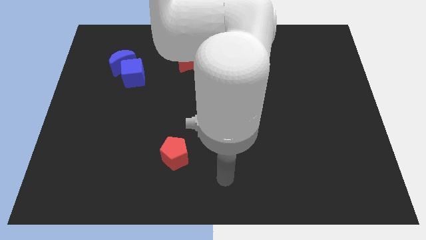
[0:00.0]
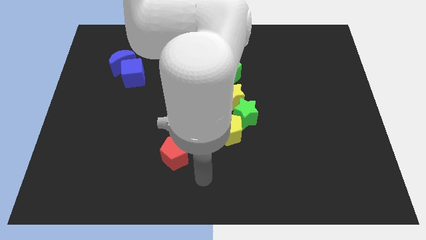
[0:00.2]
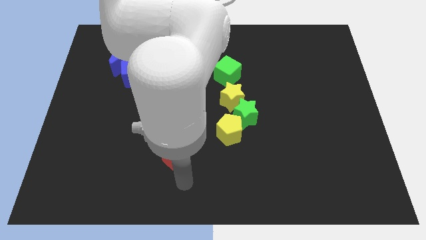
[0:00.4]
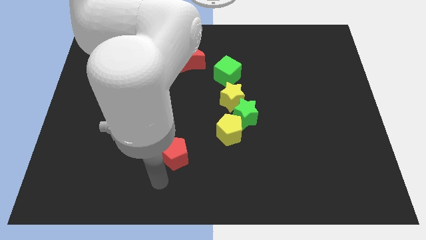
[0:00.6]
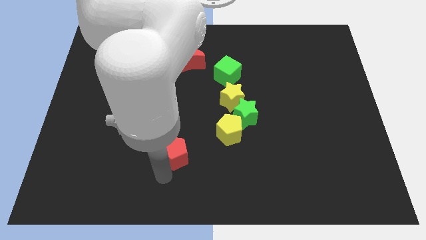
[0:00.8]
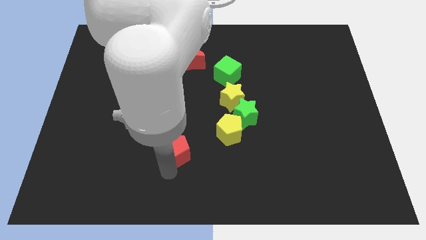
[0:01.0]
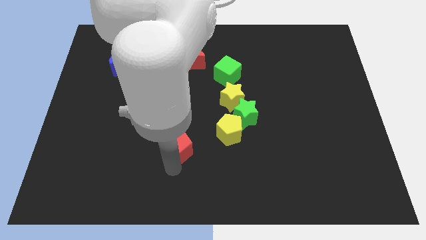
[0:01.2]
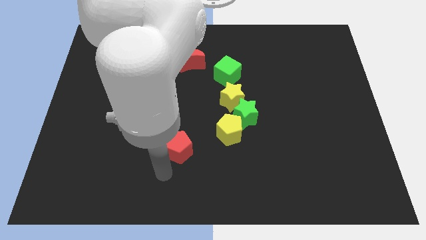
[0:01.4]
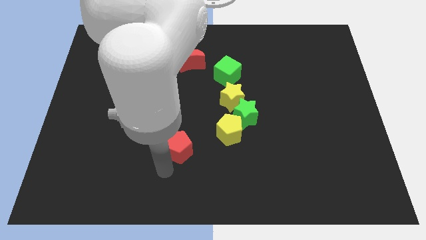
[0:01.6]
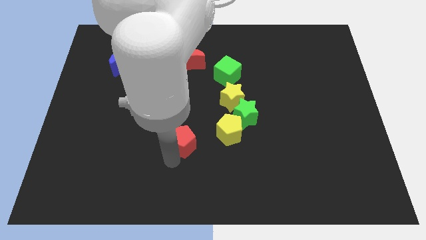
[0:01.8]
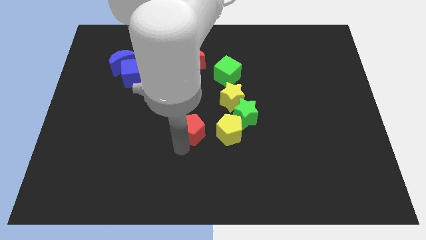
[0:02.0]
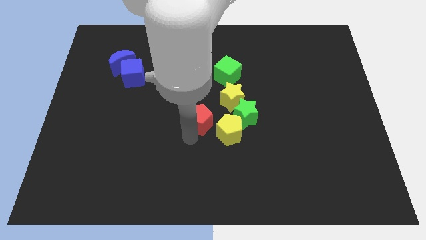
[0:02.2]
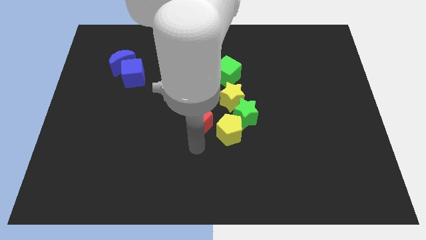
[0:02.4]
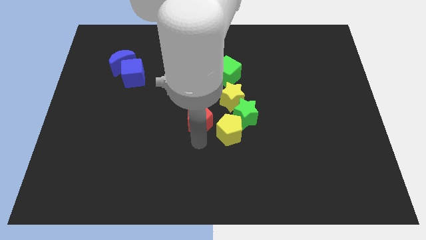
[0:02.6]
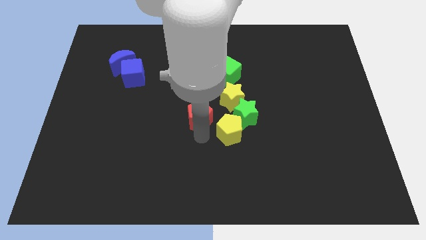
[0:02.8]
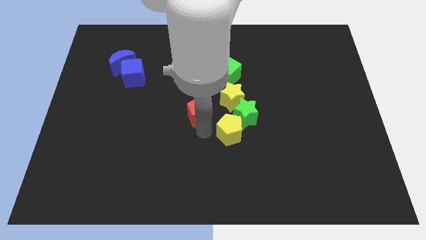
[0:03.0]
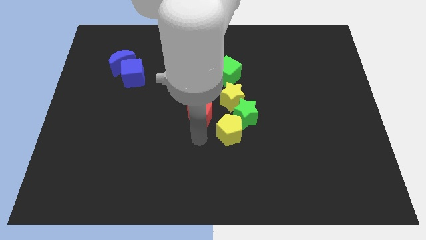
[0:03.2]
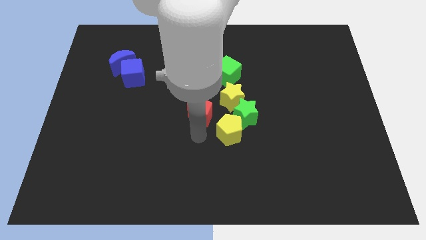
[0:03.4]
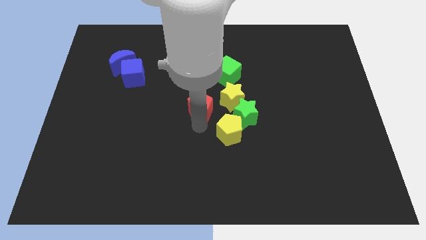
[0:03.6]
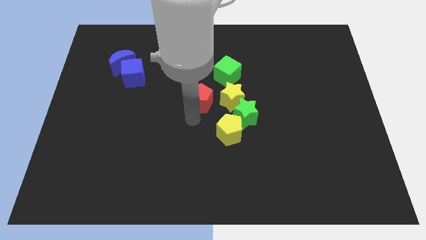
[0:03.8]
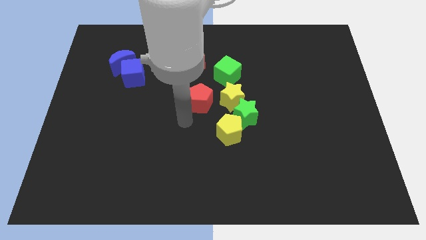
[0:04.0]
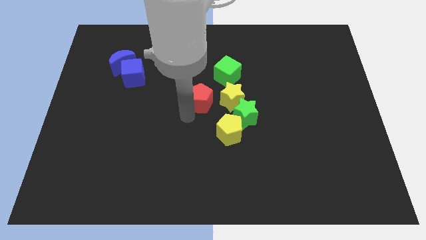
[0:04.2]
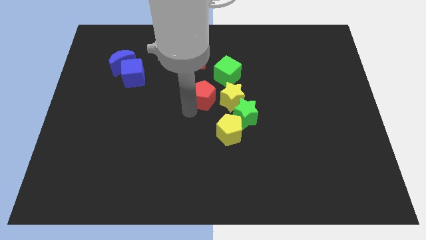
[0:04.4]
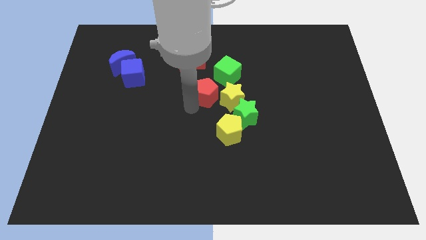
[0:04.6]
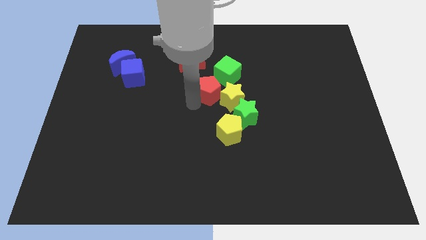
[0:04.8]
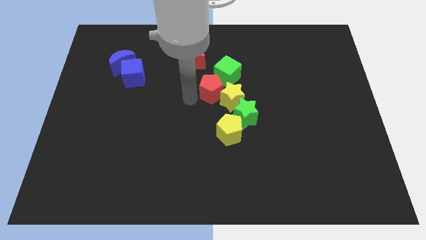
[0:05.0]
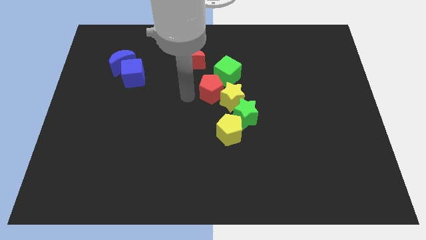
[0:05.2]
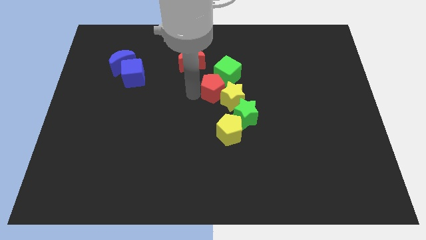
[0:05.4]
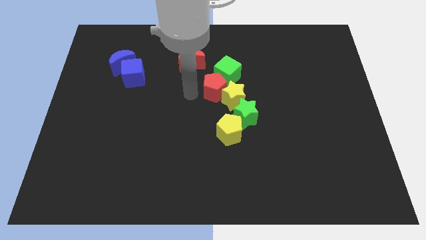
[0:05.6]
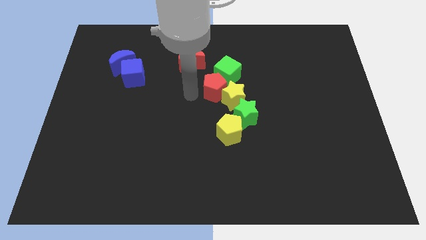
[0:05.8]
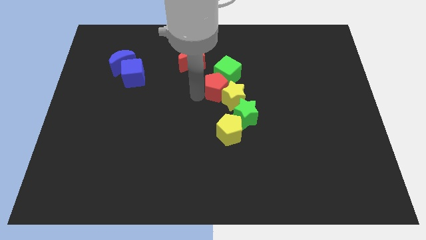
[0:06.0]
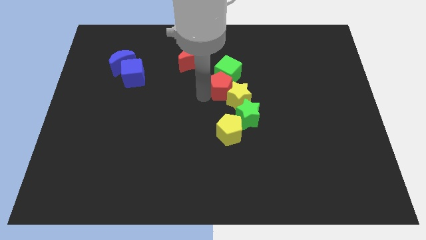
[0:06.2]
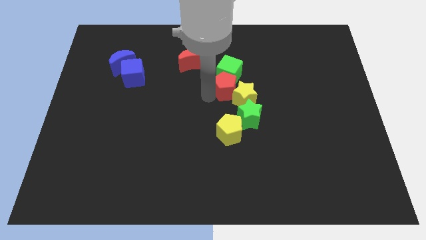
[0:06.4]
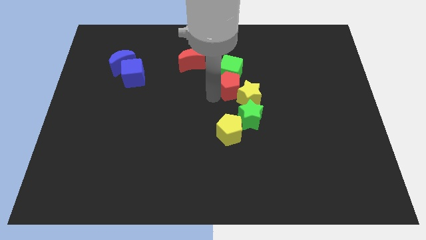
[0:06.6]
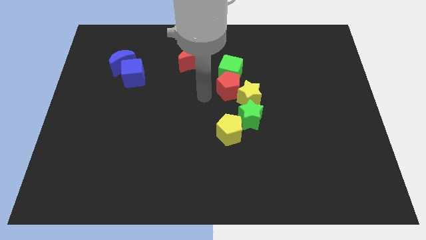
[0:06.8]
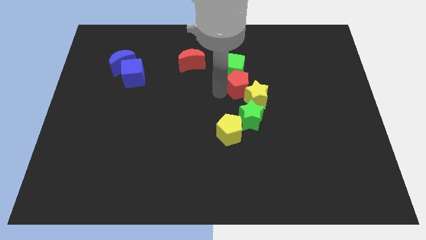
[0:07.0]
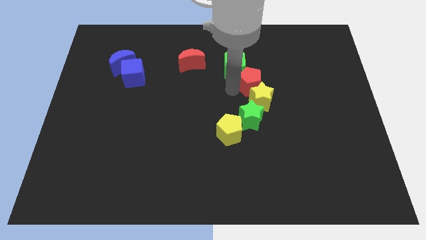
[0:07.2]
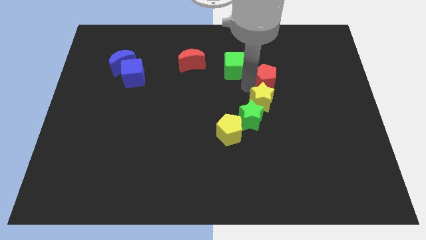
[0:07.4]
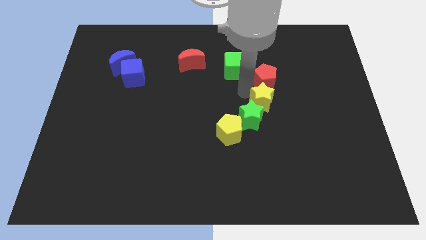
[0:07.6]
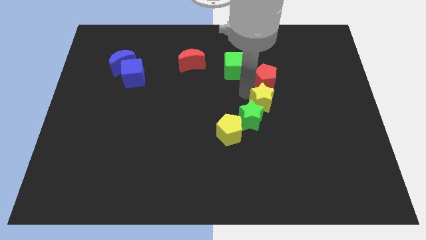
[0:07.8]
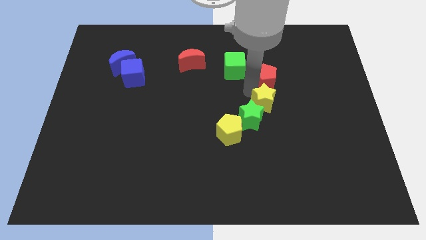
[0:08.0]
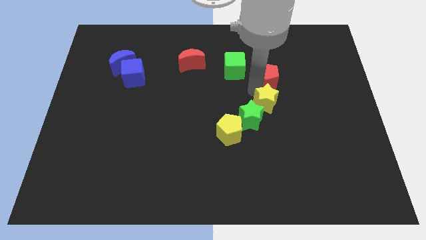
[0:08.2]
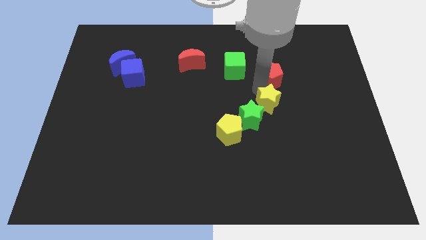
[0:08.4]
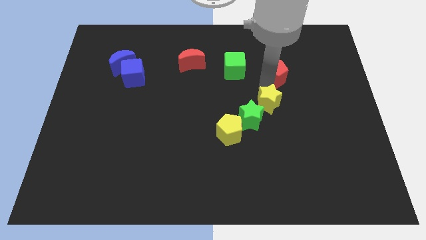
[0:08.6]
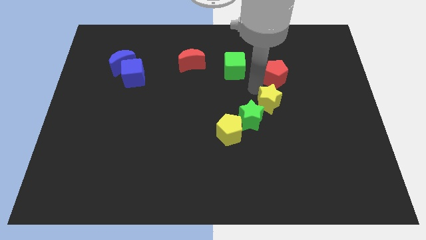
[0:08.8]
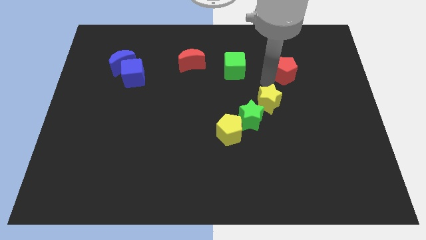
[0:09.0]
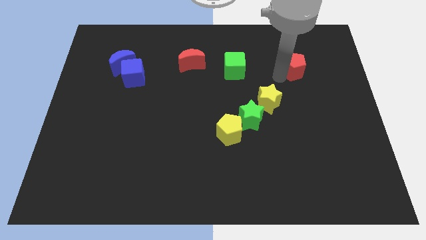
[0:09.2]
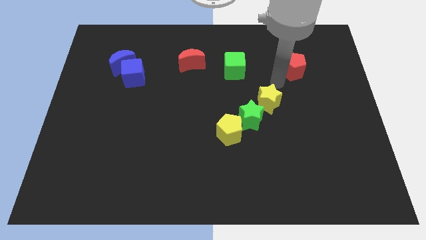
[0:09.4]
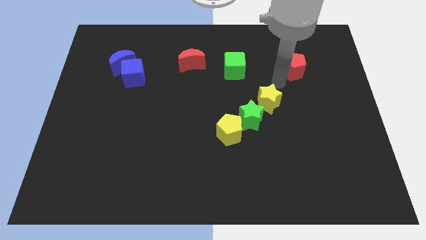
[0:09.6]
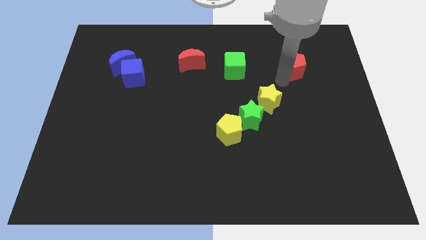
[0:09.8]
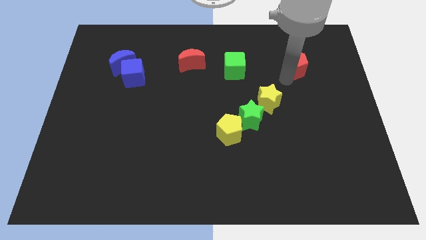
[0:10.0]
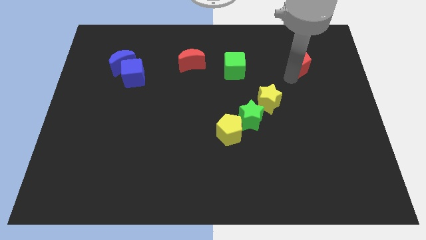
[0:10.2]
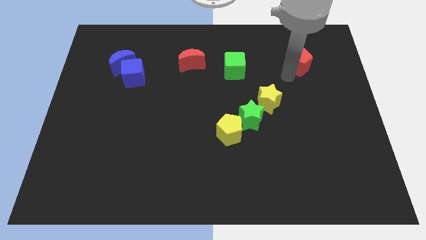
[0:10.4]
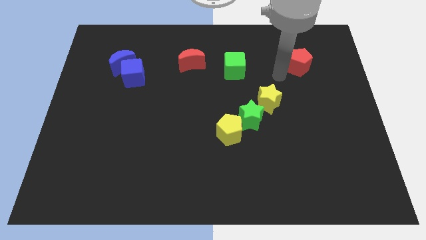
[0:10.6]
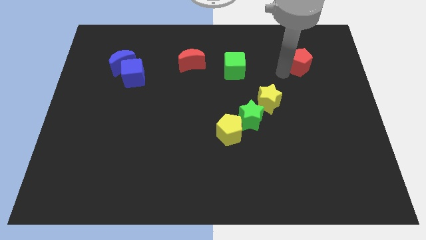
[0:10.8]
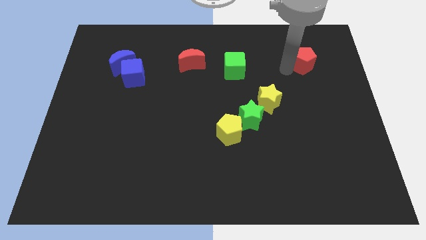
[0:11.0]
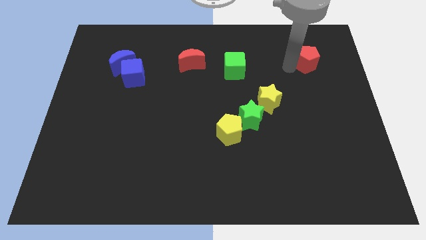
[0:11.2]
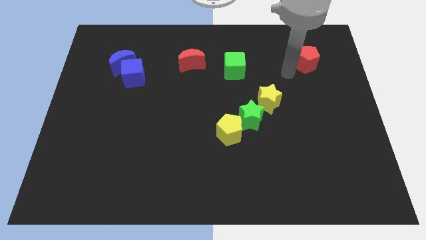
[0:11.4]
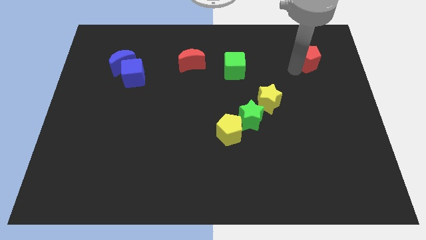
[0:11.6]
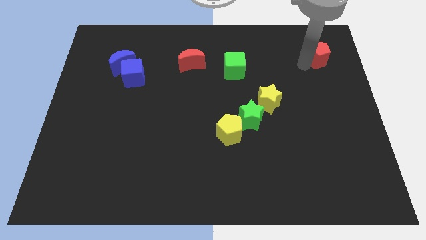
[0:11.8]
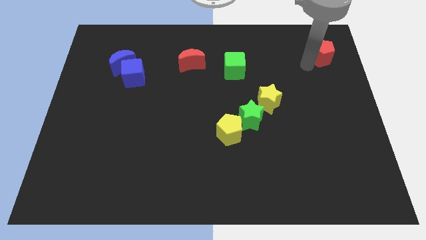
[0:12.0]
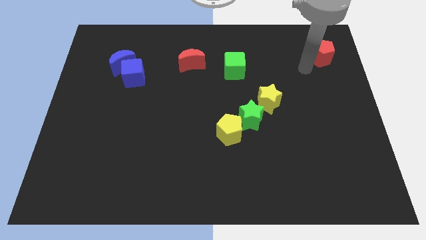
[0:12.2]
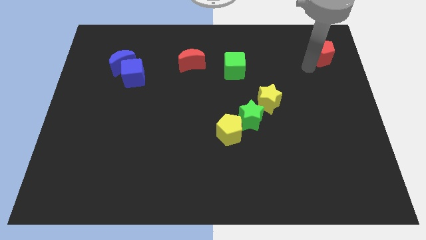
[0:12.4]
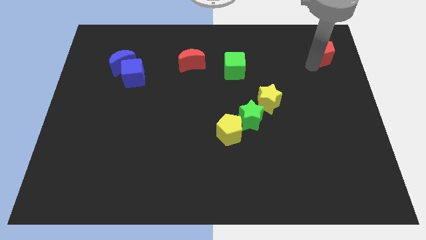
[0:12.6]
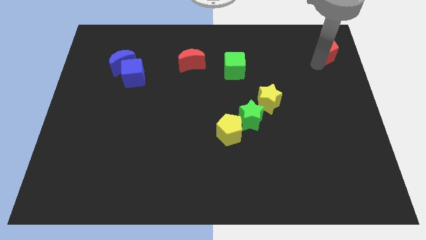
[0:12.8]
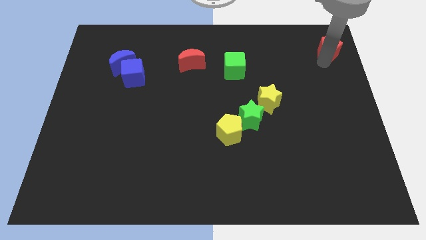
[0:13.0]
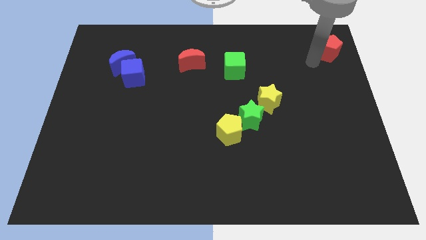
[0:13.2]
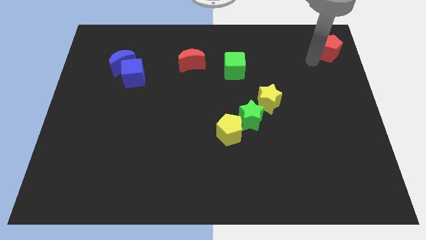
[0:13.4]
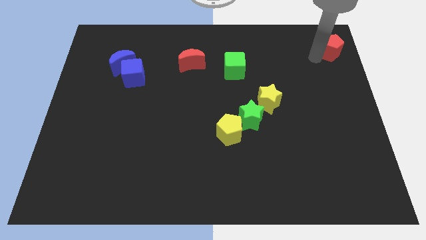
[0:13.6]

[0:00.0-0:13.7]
slide the red pentagon to the top right

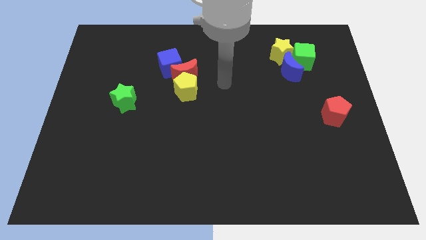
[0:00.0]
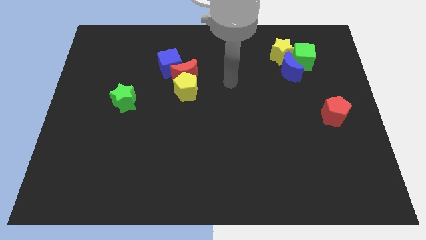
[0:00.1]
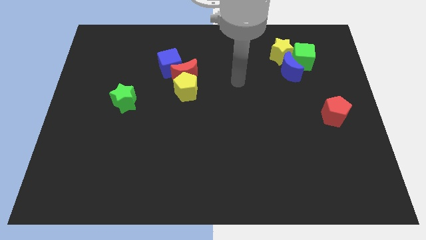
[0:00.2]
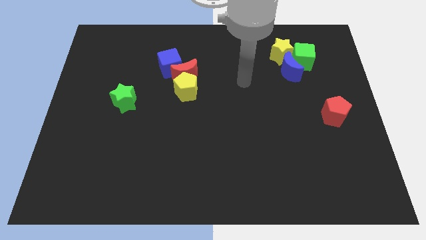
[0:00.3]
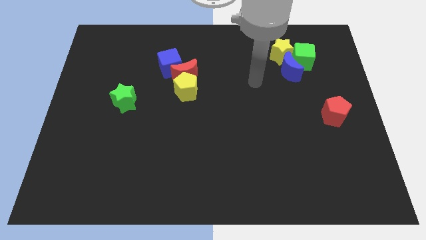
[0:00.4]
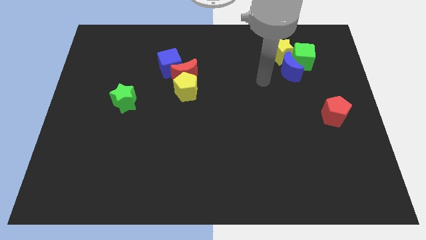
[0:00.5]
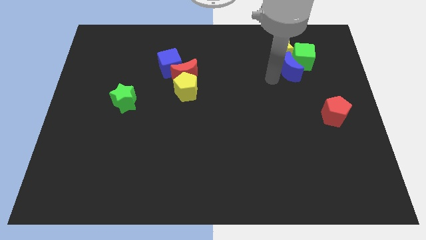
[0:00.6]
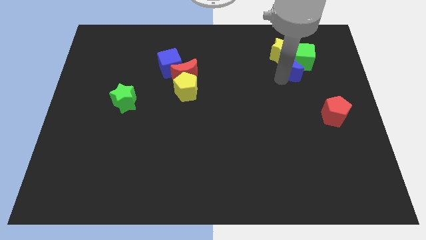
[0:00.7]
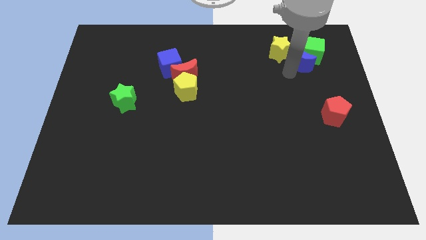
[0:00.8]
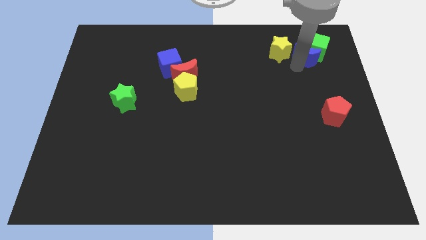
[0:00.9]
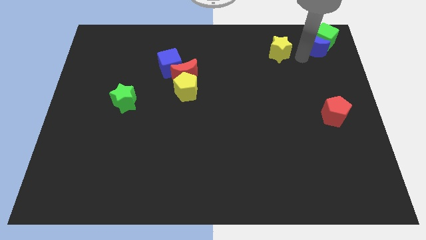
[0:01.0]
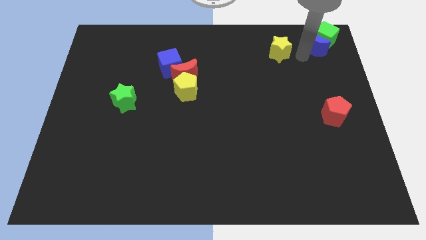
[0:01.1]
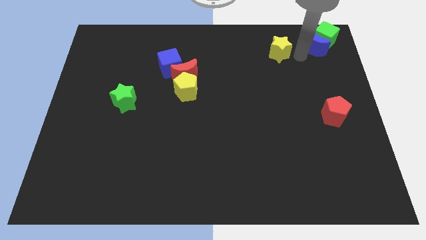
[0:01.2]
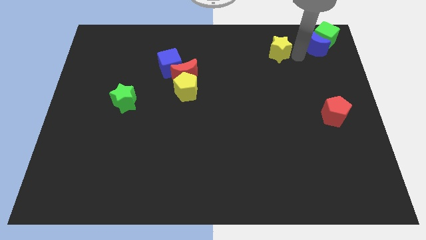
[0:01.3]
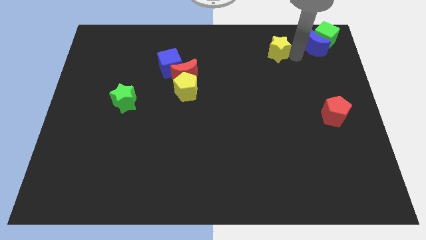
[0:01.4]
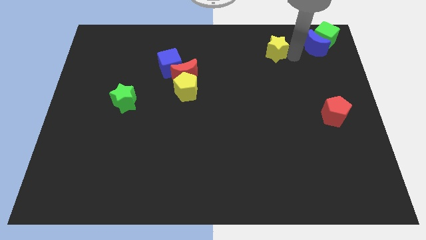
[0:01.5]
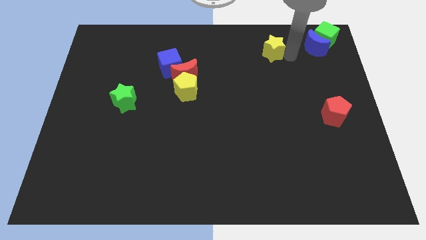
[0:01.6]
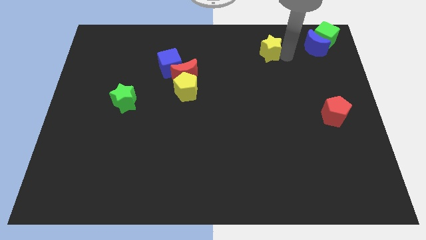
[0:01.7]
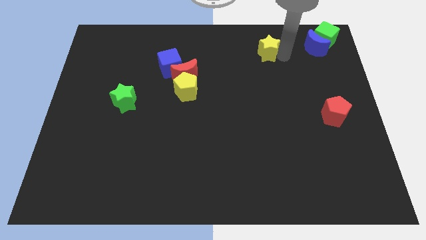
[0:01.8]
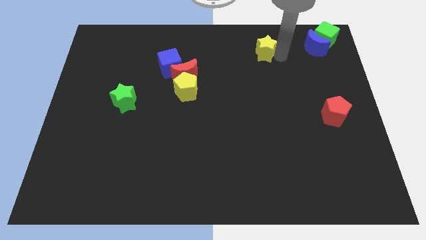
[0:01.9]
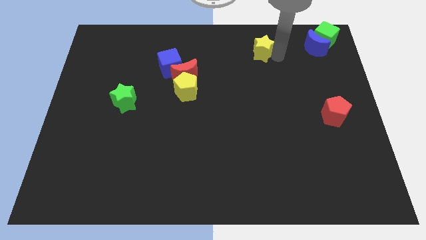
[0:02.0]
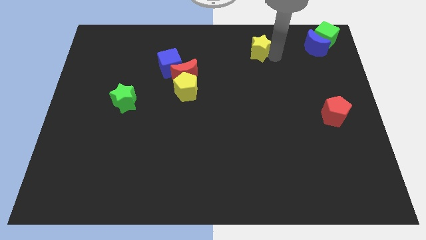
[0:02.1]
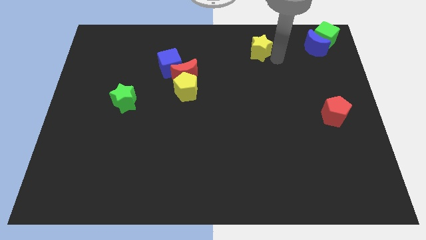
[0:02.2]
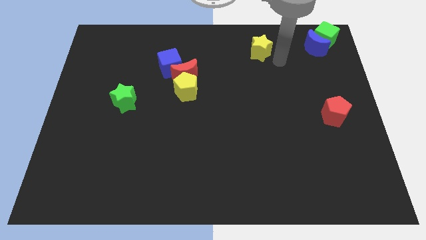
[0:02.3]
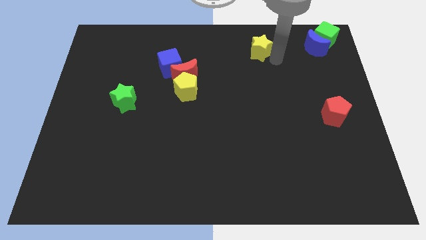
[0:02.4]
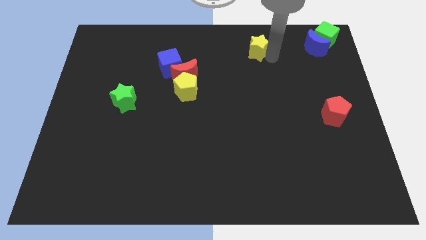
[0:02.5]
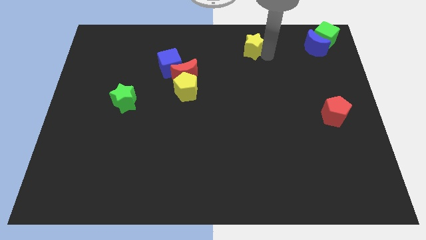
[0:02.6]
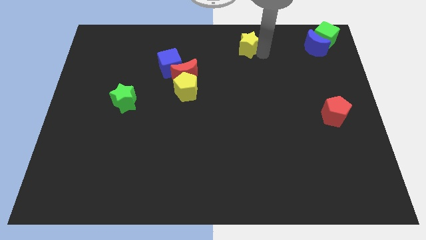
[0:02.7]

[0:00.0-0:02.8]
put the yellow star to the towards your base
